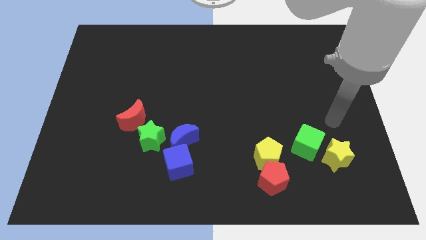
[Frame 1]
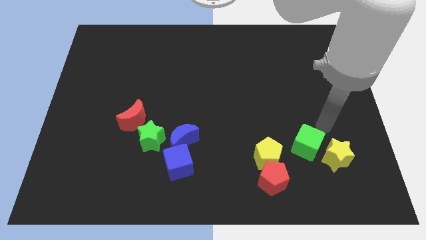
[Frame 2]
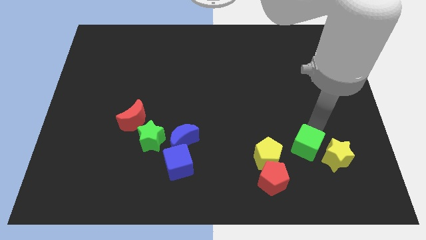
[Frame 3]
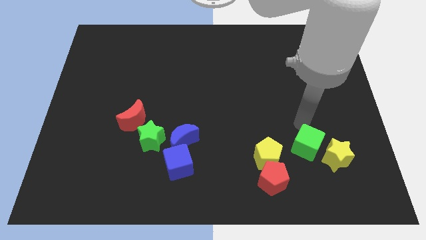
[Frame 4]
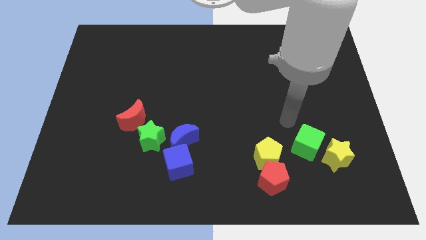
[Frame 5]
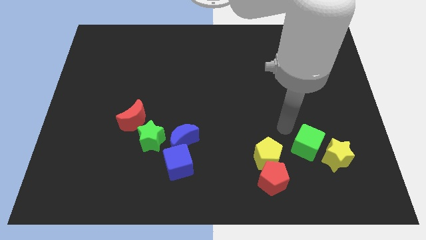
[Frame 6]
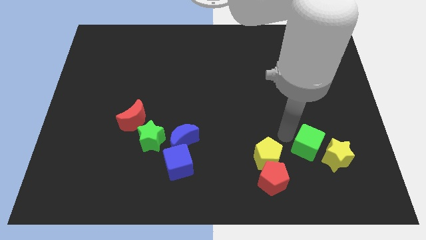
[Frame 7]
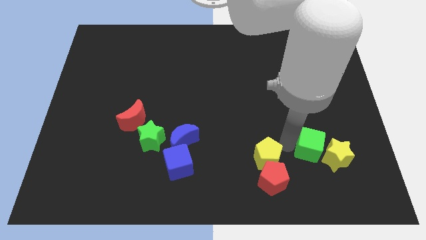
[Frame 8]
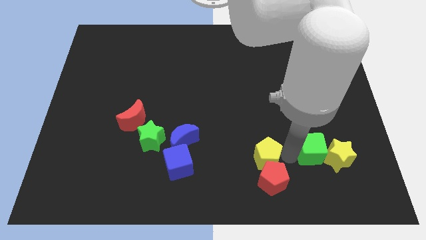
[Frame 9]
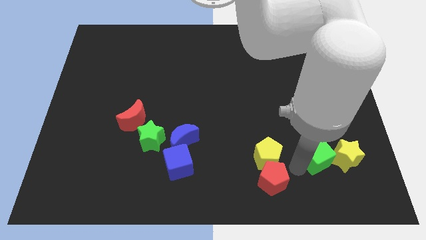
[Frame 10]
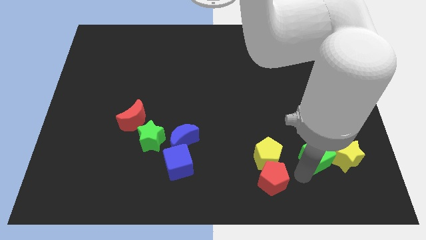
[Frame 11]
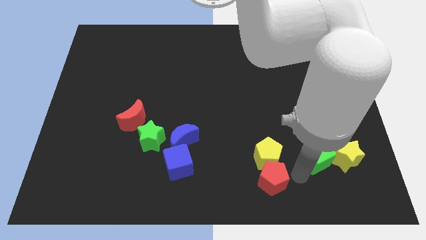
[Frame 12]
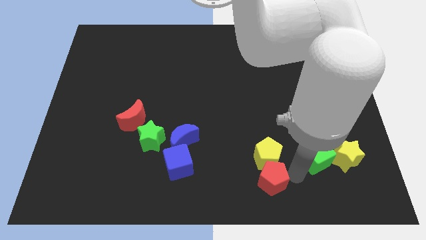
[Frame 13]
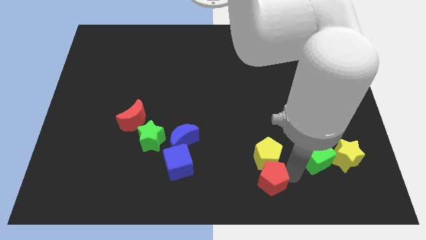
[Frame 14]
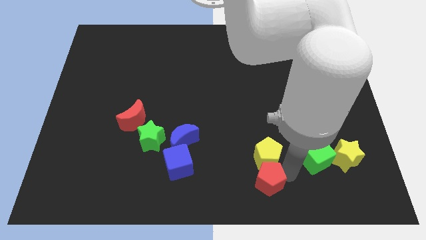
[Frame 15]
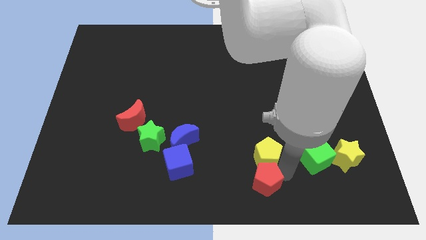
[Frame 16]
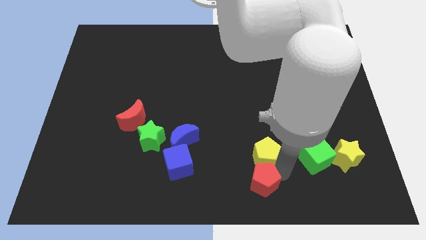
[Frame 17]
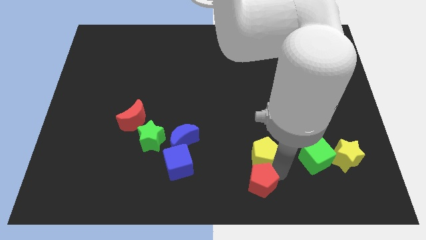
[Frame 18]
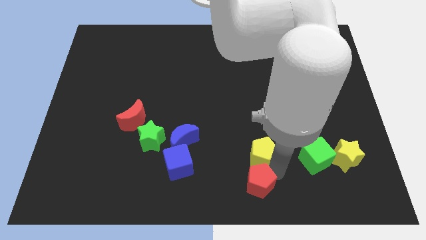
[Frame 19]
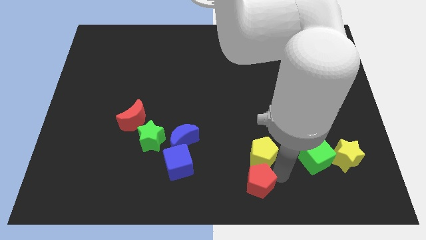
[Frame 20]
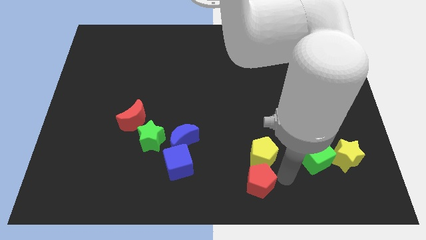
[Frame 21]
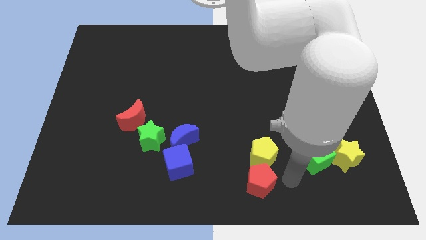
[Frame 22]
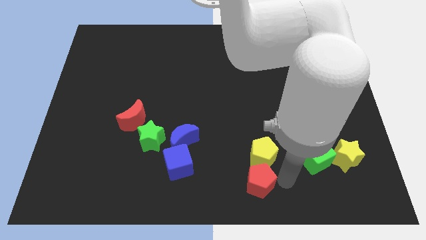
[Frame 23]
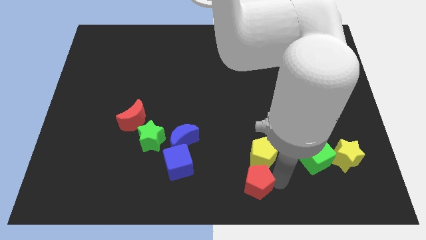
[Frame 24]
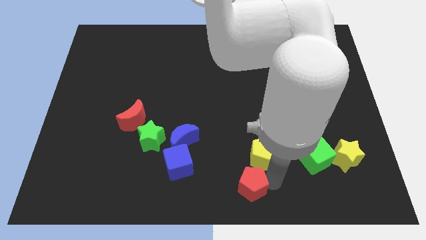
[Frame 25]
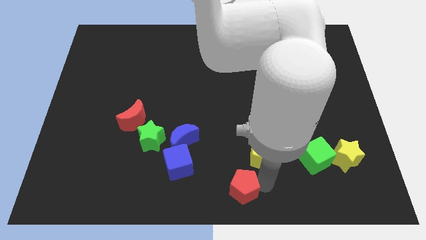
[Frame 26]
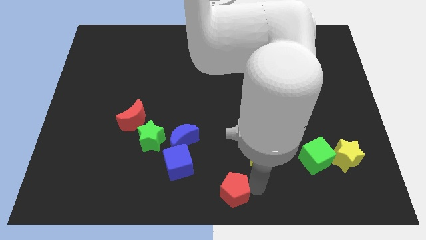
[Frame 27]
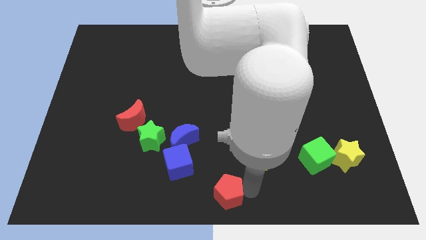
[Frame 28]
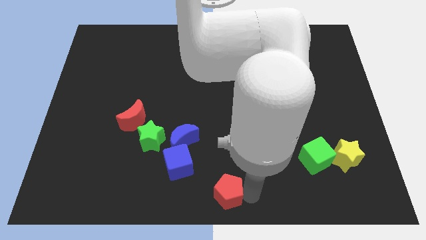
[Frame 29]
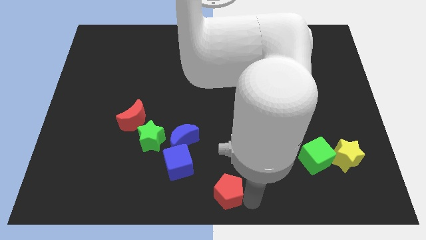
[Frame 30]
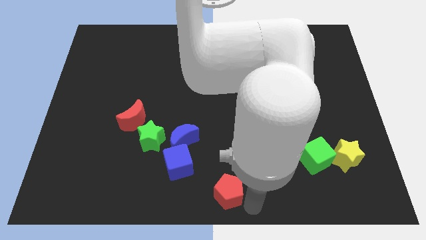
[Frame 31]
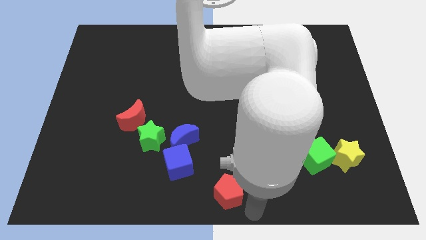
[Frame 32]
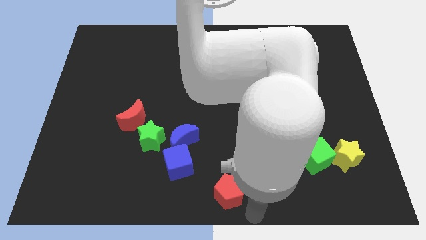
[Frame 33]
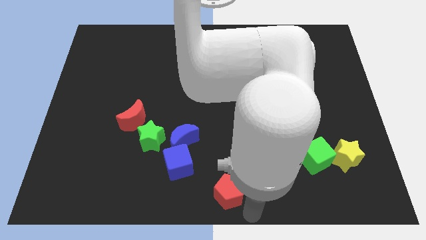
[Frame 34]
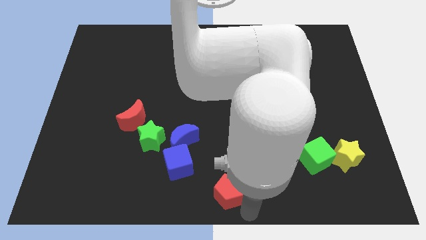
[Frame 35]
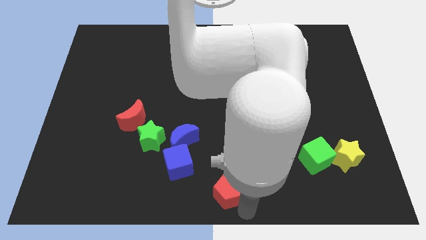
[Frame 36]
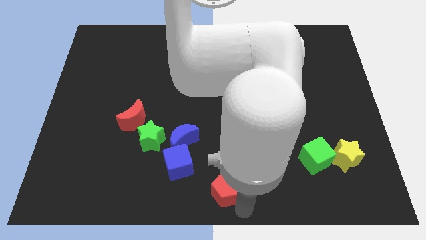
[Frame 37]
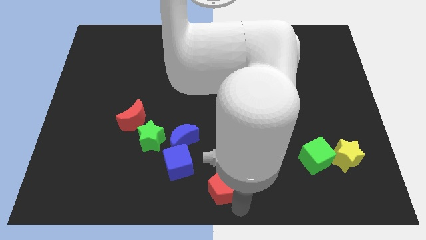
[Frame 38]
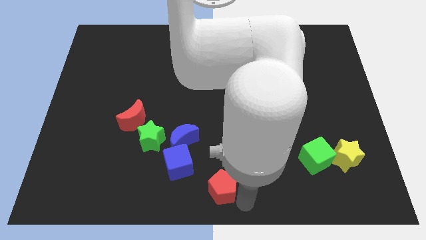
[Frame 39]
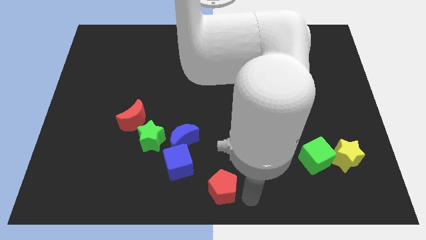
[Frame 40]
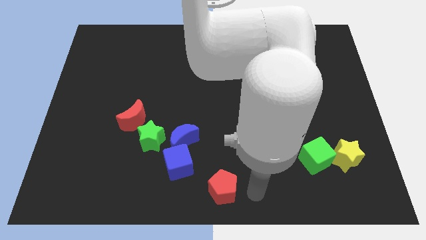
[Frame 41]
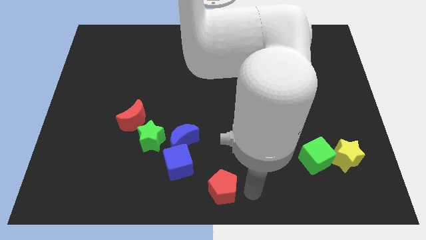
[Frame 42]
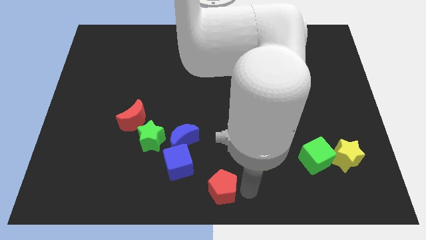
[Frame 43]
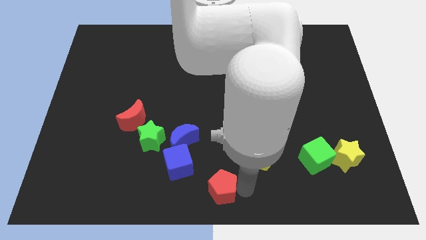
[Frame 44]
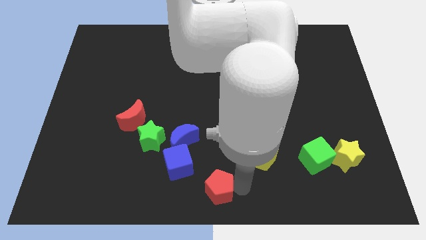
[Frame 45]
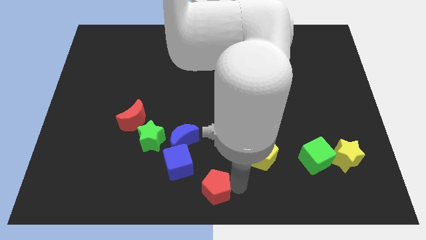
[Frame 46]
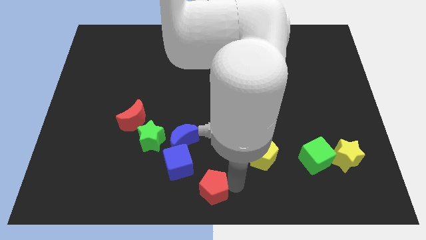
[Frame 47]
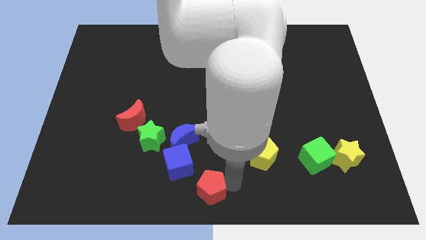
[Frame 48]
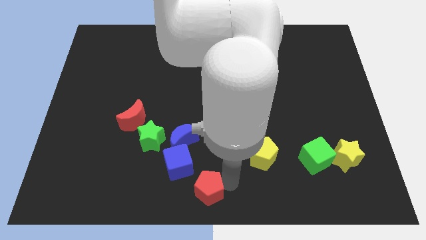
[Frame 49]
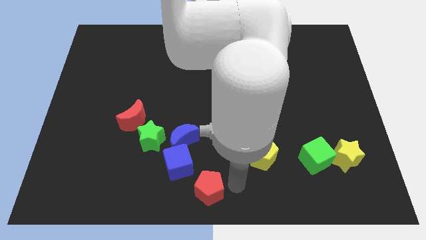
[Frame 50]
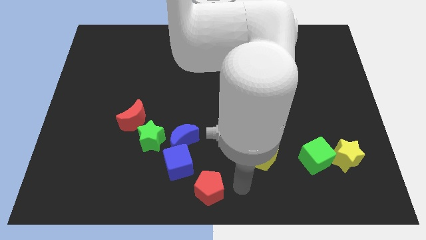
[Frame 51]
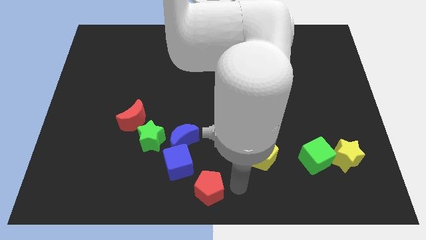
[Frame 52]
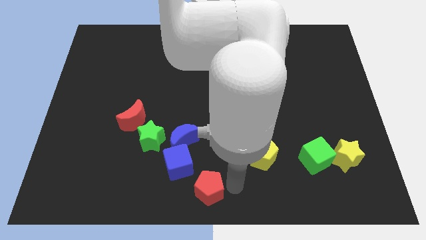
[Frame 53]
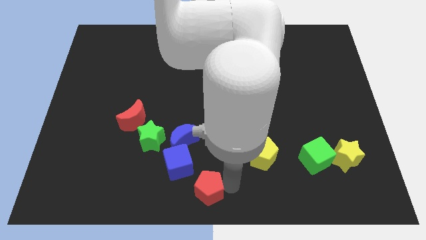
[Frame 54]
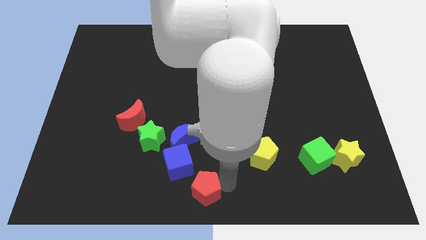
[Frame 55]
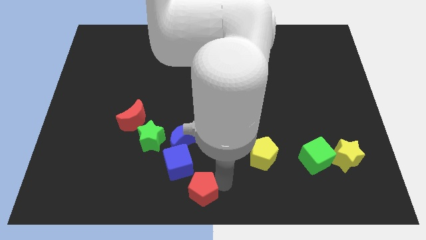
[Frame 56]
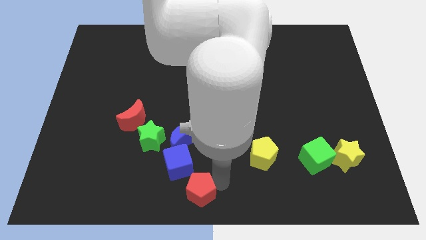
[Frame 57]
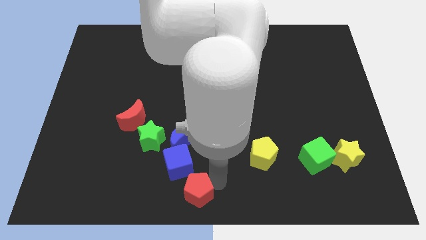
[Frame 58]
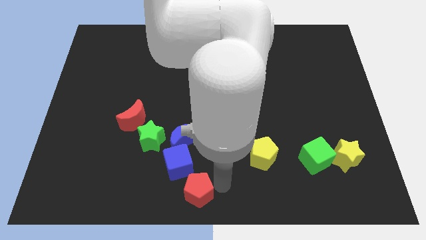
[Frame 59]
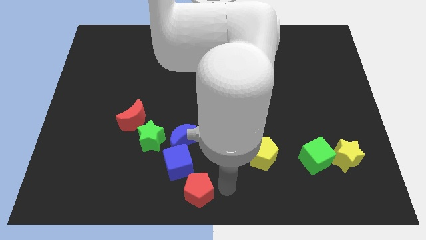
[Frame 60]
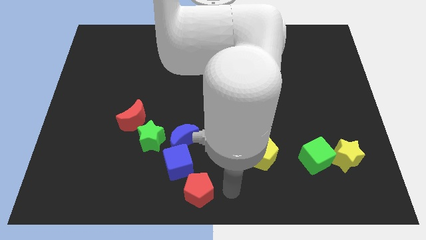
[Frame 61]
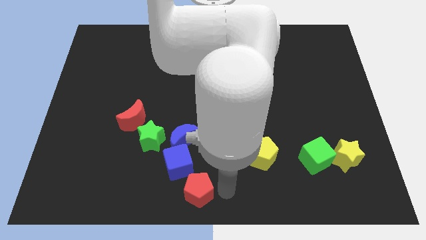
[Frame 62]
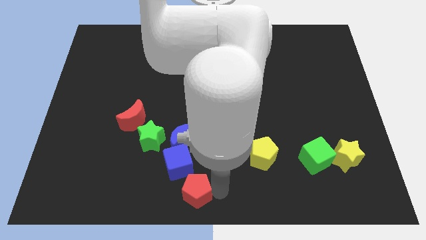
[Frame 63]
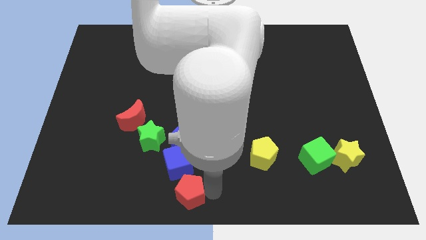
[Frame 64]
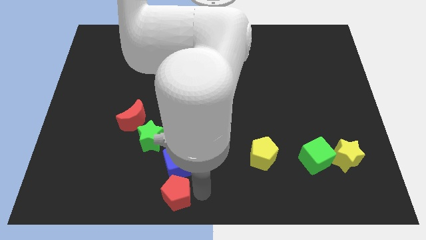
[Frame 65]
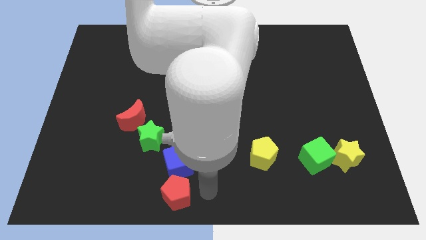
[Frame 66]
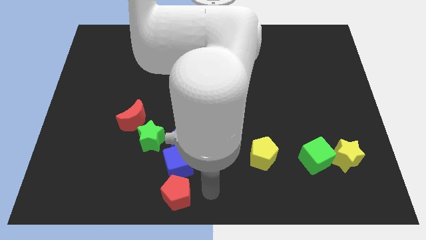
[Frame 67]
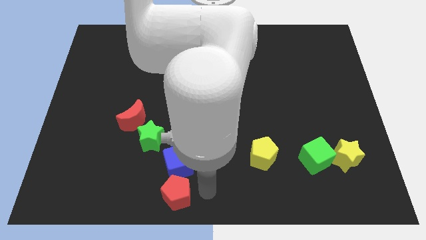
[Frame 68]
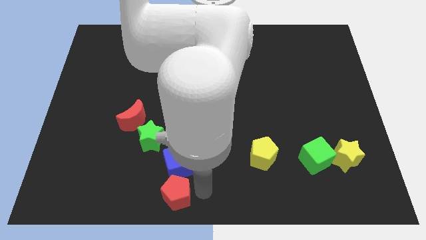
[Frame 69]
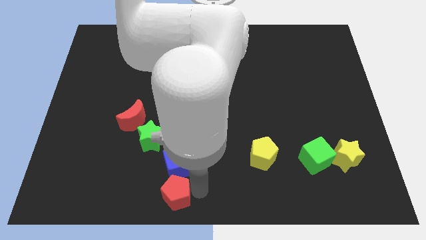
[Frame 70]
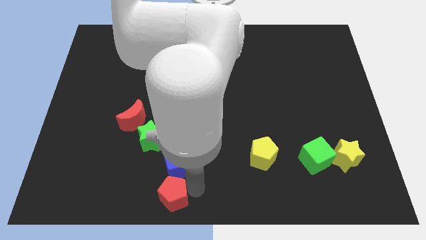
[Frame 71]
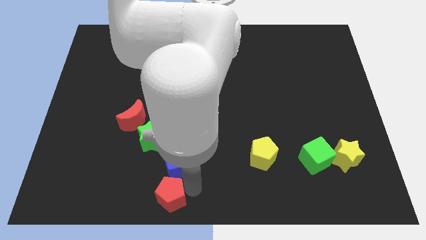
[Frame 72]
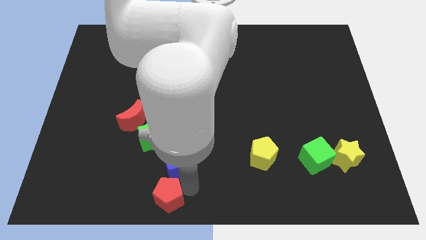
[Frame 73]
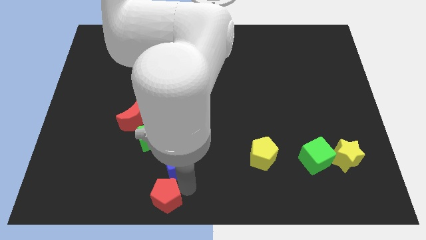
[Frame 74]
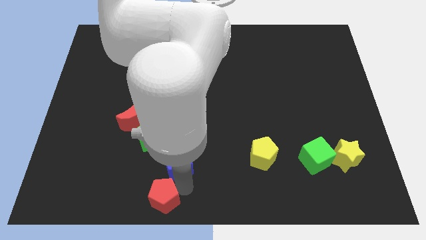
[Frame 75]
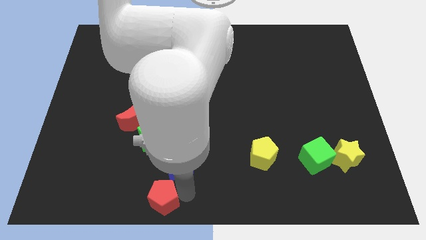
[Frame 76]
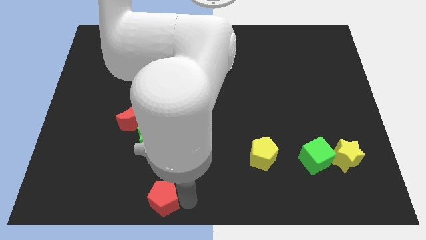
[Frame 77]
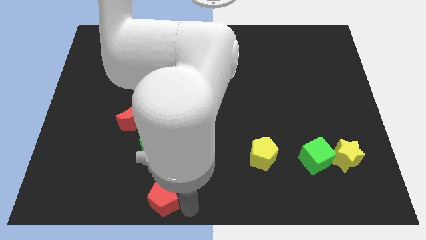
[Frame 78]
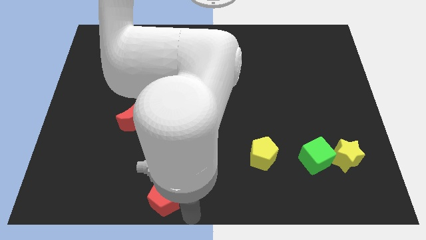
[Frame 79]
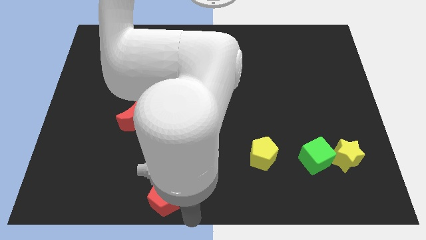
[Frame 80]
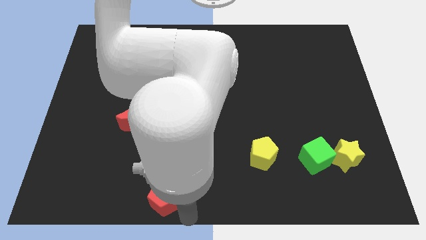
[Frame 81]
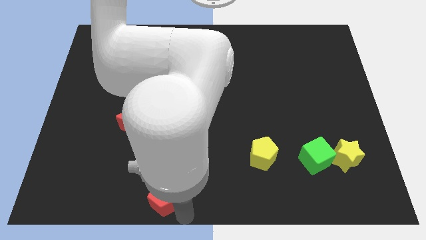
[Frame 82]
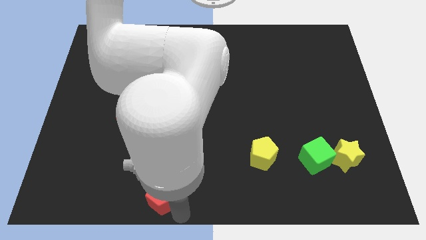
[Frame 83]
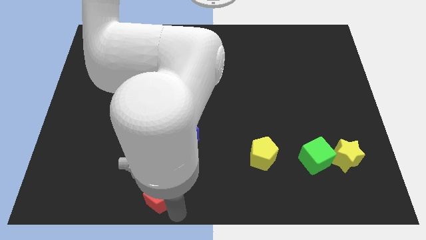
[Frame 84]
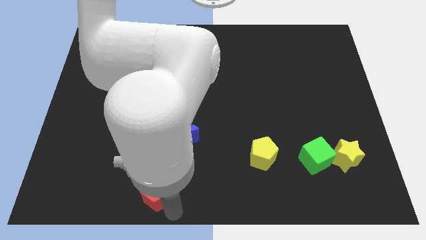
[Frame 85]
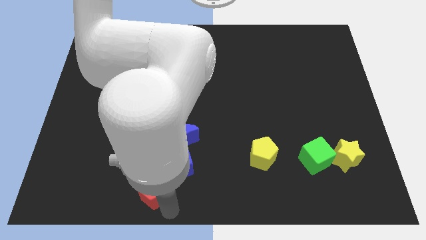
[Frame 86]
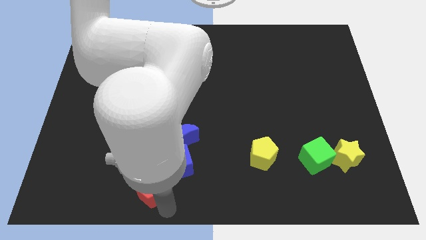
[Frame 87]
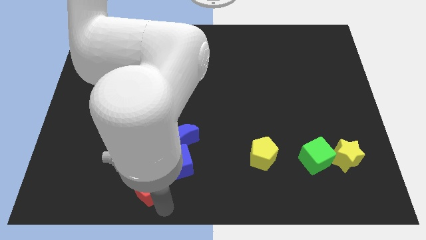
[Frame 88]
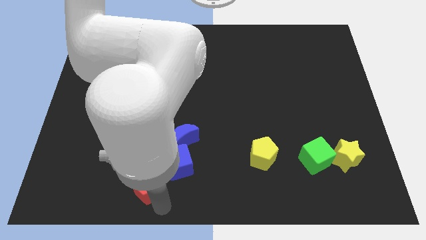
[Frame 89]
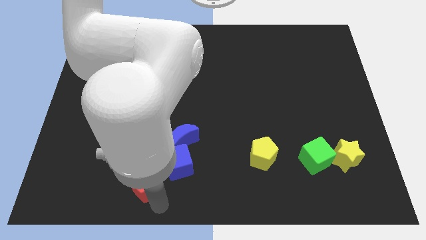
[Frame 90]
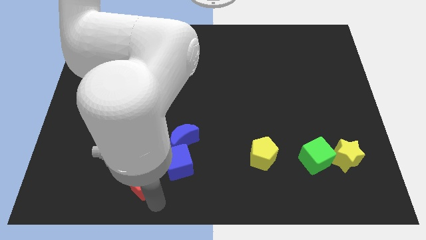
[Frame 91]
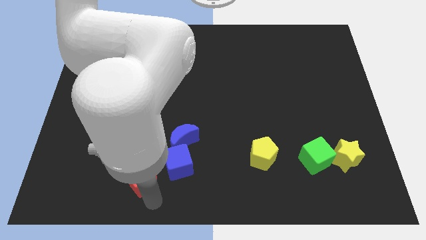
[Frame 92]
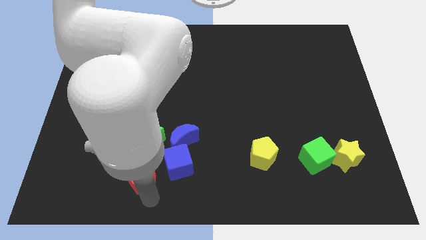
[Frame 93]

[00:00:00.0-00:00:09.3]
slide the red pentagon to the bottom of the red moon
